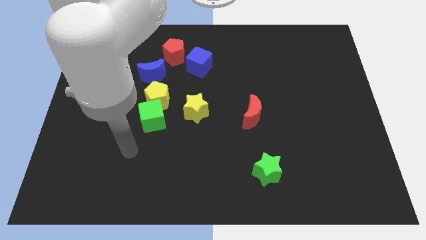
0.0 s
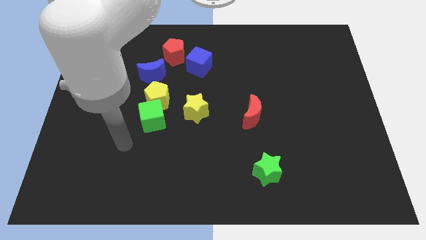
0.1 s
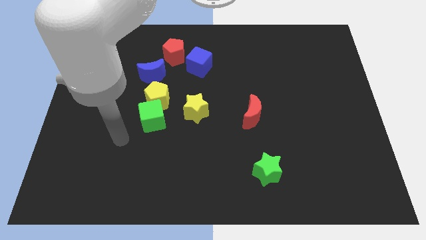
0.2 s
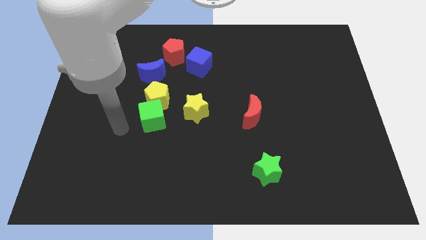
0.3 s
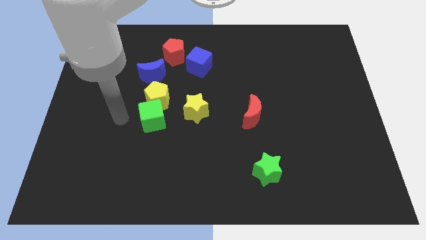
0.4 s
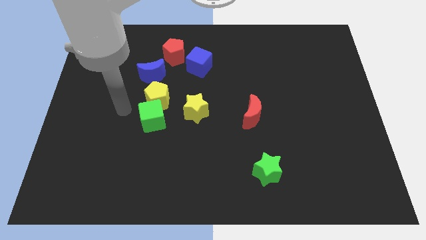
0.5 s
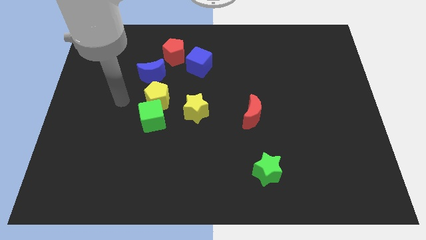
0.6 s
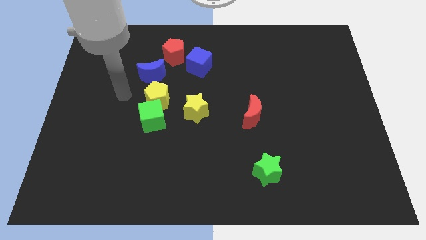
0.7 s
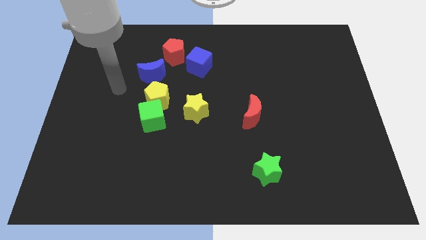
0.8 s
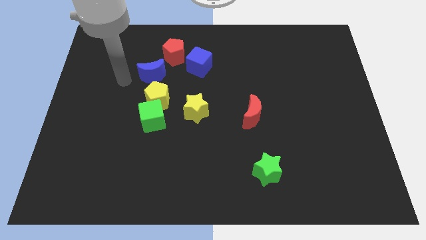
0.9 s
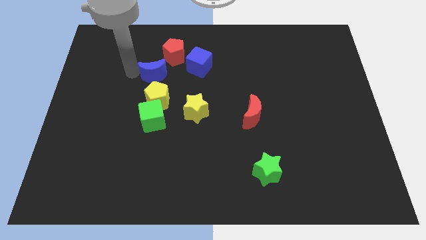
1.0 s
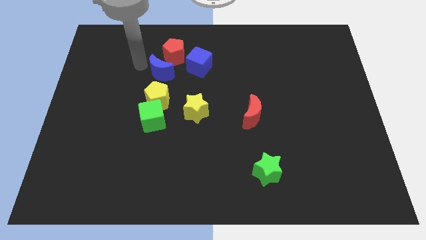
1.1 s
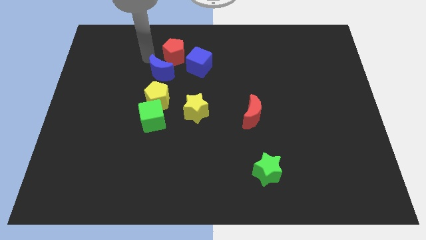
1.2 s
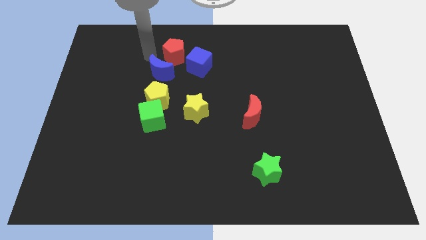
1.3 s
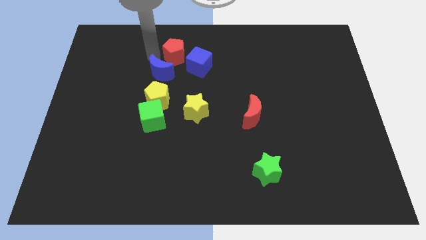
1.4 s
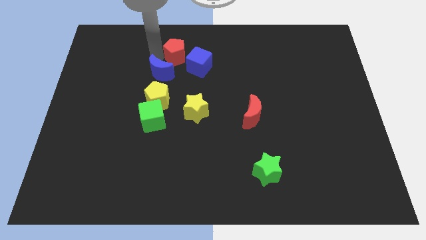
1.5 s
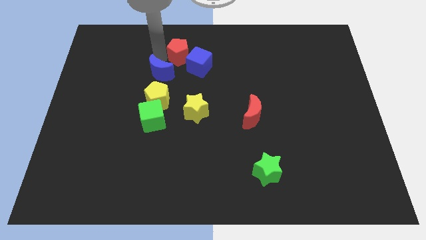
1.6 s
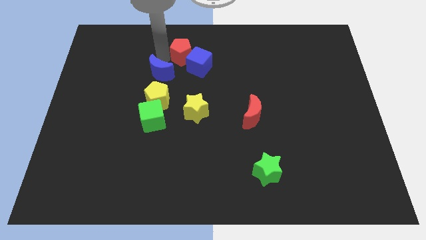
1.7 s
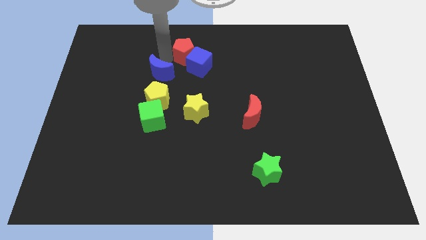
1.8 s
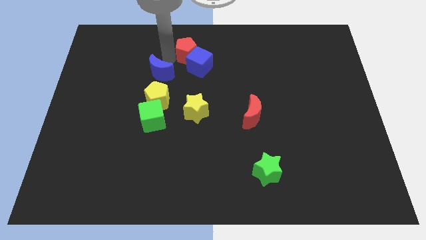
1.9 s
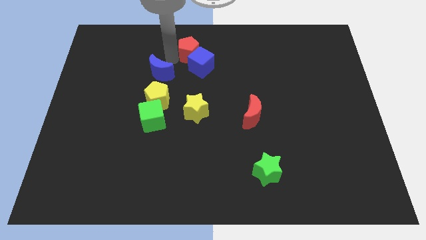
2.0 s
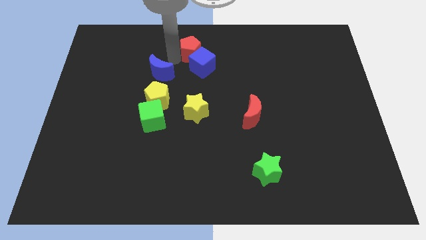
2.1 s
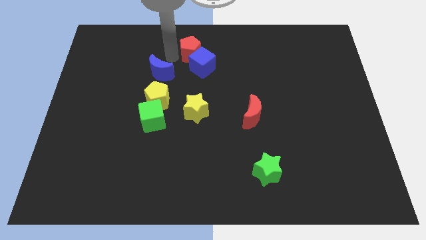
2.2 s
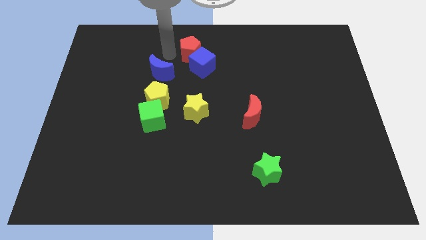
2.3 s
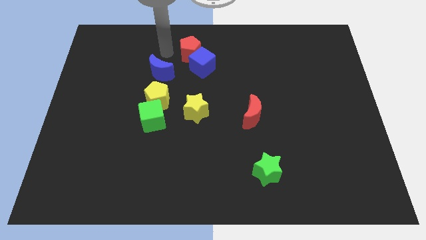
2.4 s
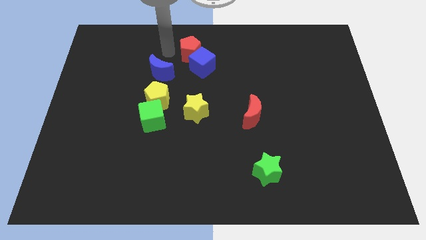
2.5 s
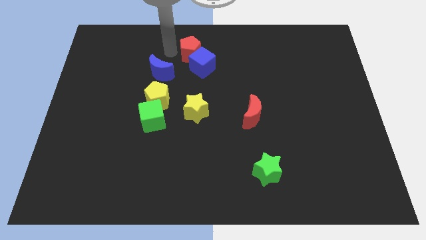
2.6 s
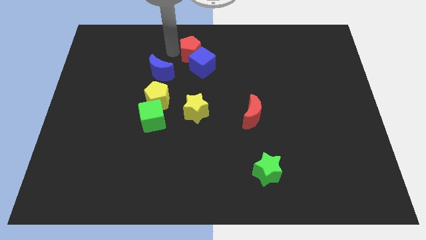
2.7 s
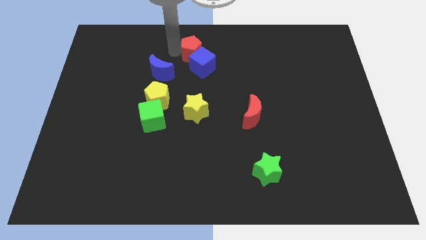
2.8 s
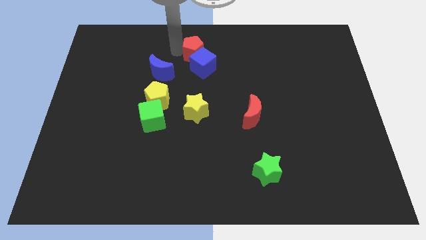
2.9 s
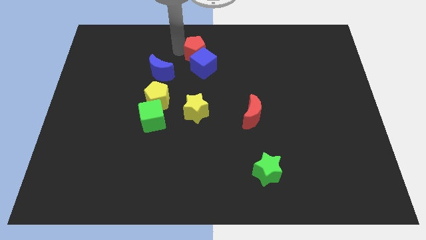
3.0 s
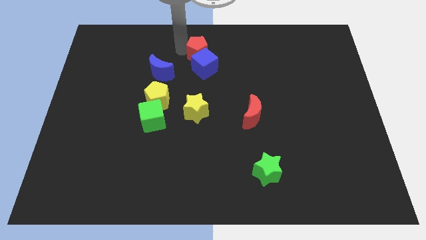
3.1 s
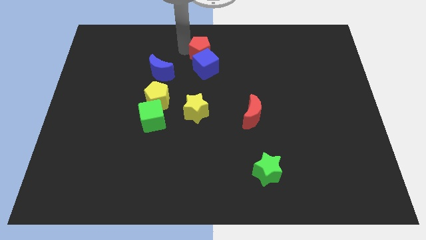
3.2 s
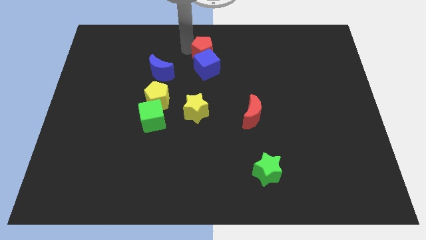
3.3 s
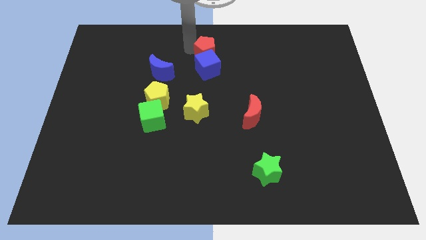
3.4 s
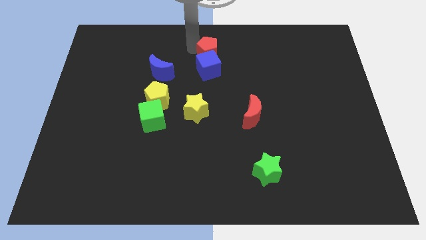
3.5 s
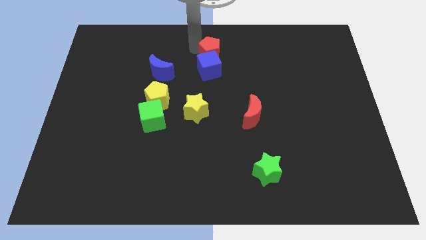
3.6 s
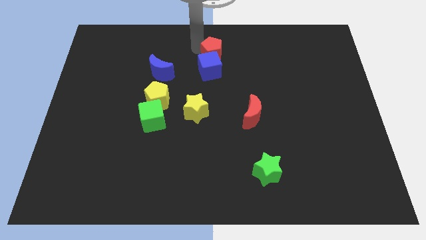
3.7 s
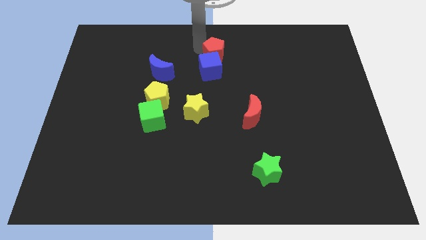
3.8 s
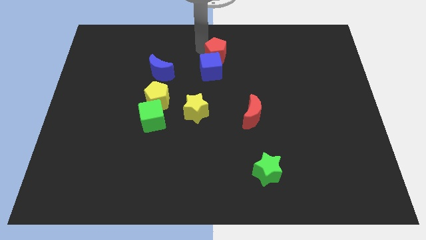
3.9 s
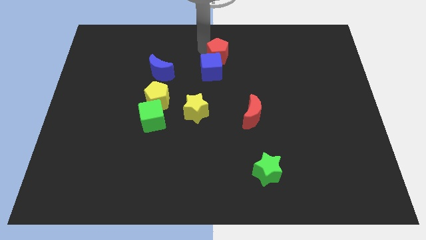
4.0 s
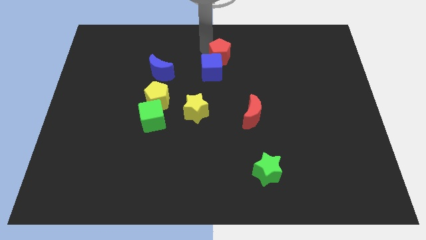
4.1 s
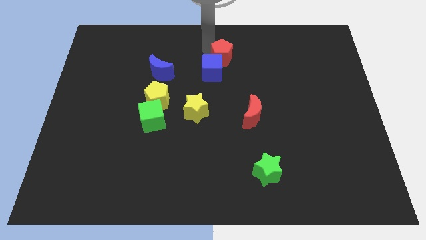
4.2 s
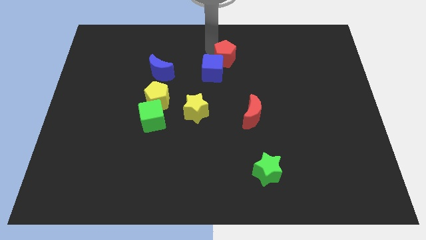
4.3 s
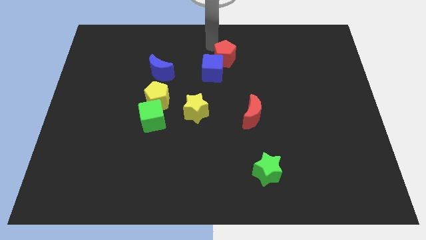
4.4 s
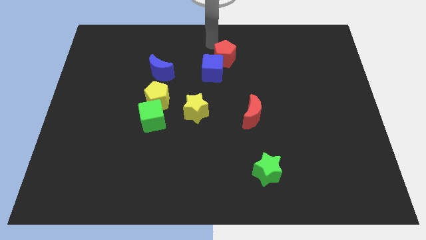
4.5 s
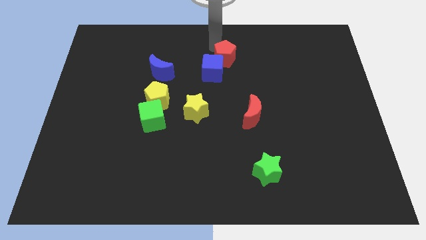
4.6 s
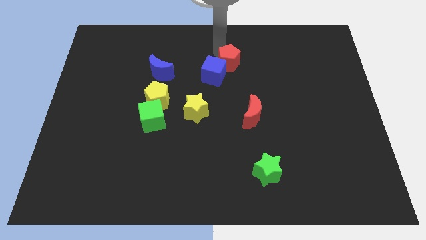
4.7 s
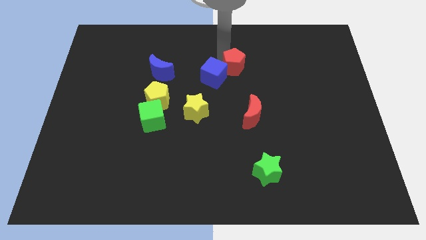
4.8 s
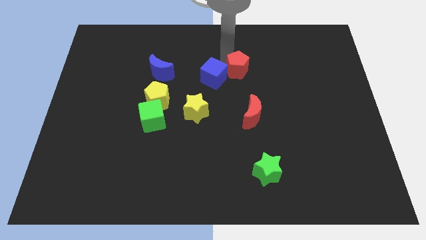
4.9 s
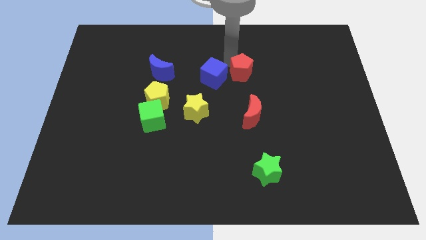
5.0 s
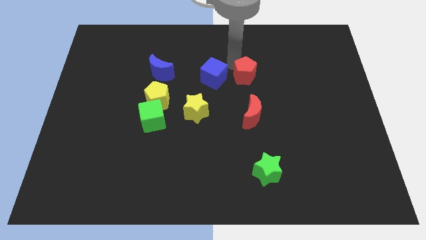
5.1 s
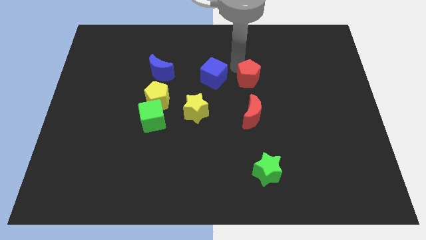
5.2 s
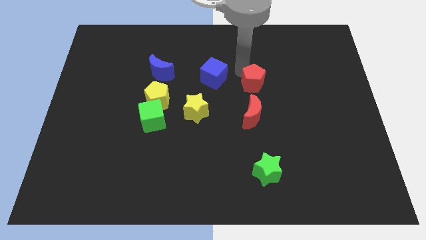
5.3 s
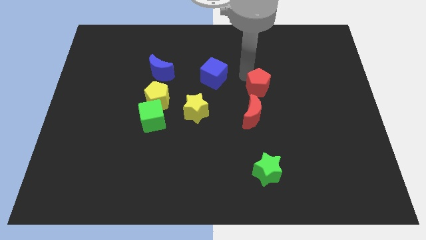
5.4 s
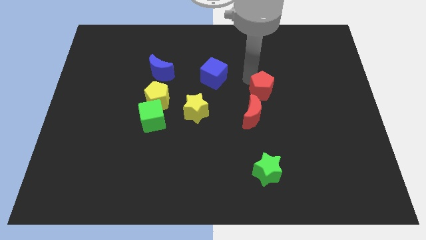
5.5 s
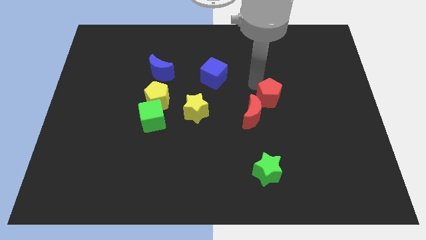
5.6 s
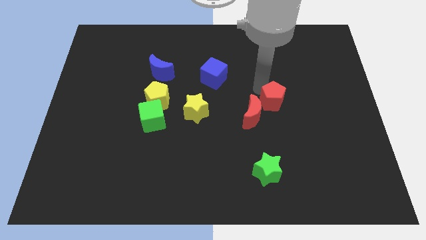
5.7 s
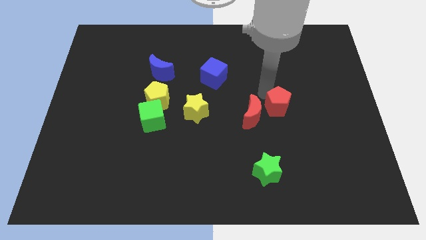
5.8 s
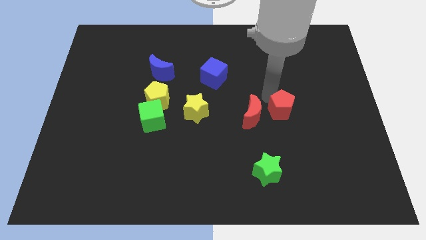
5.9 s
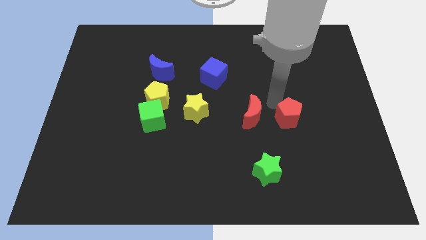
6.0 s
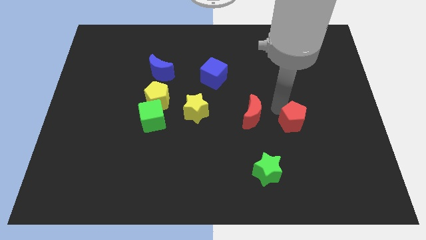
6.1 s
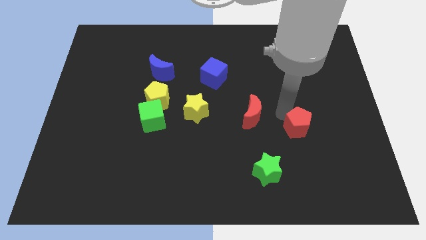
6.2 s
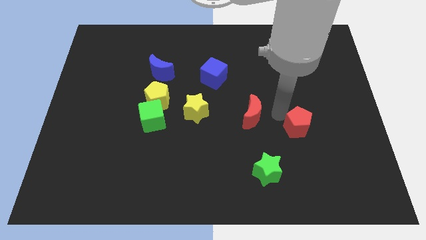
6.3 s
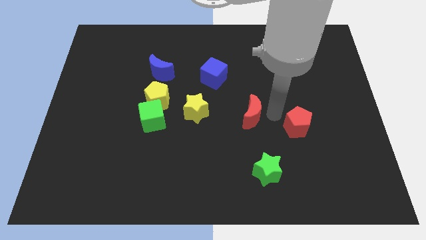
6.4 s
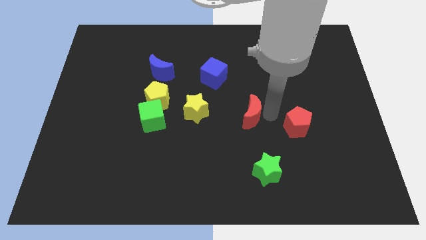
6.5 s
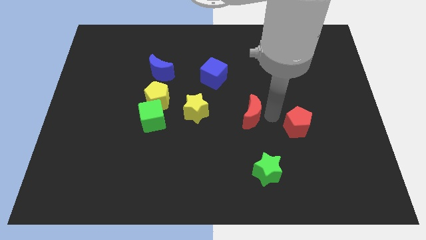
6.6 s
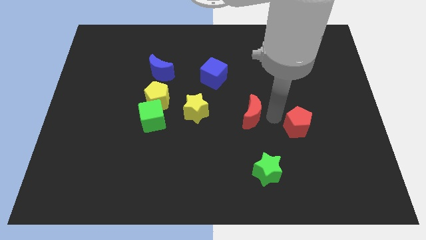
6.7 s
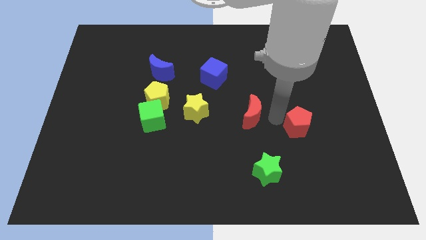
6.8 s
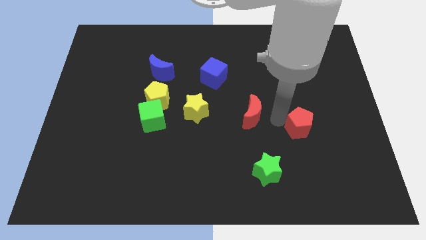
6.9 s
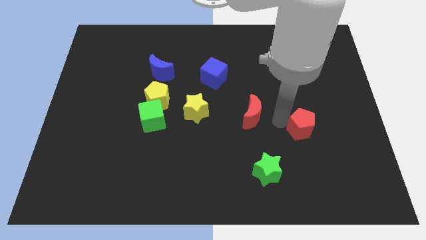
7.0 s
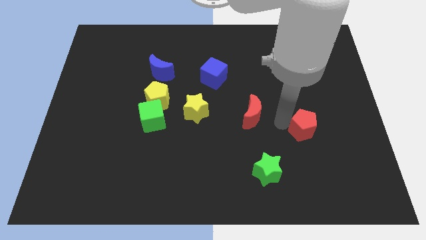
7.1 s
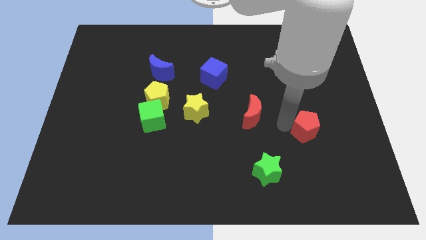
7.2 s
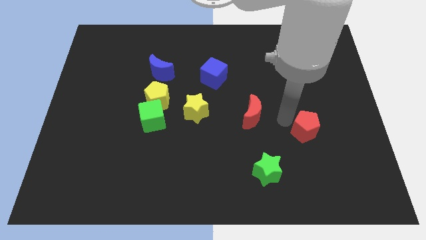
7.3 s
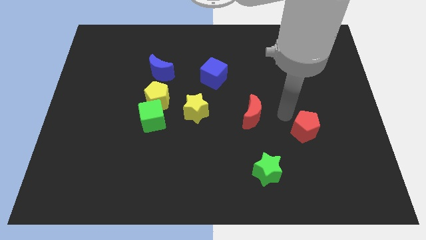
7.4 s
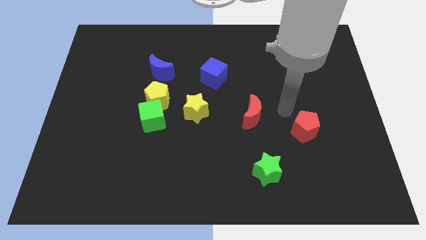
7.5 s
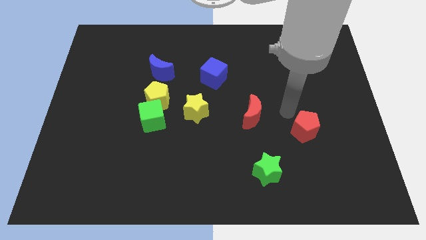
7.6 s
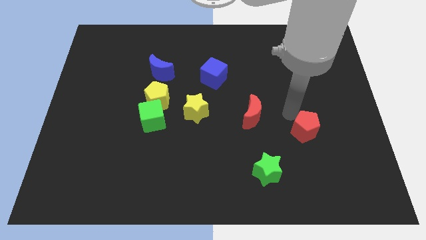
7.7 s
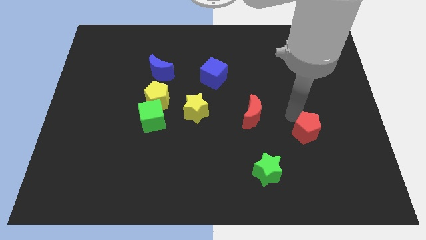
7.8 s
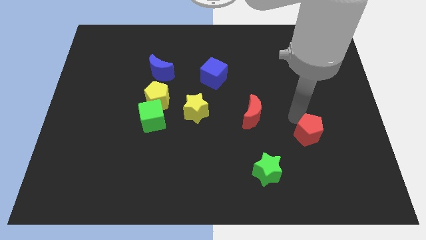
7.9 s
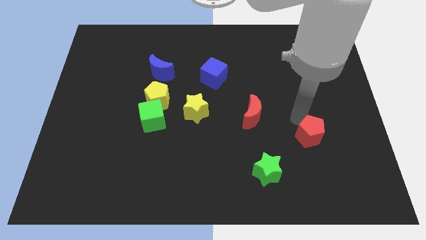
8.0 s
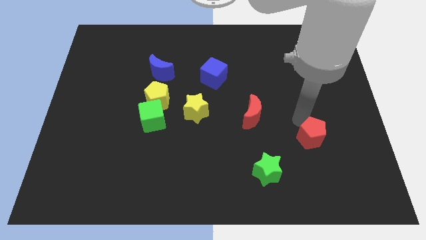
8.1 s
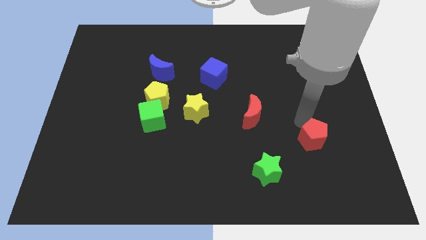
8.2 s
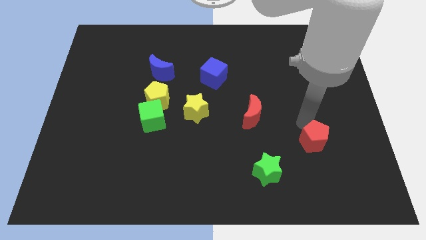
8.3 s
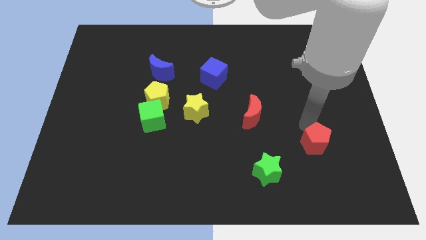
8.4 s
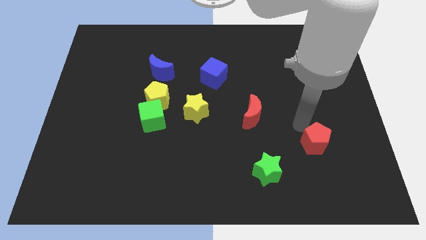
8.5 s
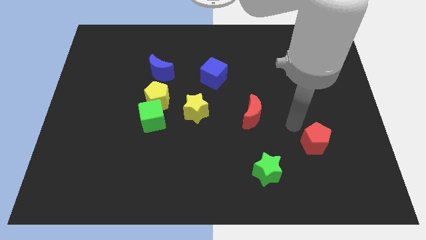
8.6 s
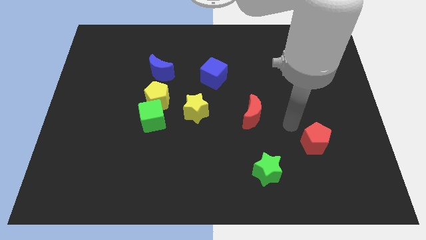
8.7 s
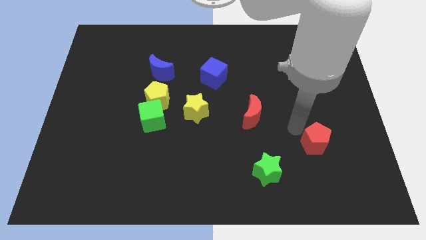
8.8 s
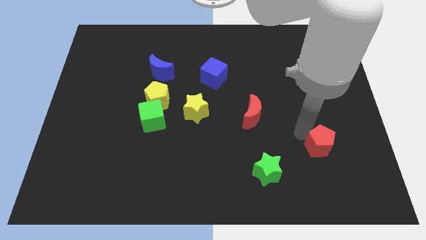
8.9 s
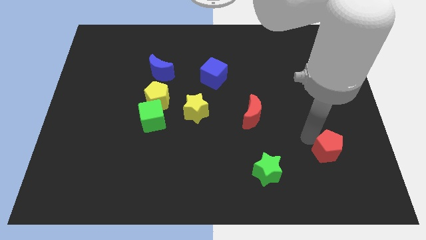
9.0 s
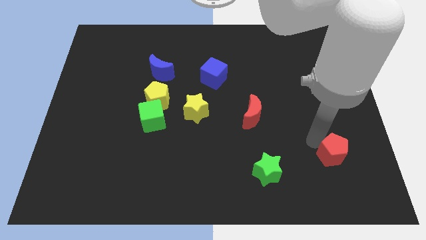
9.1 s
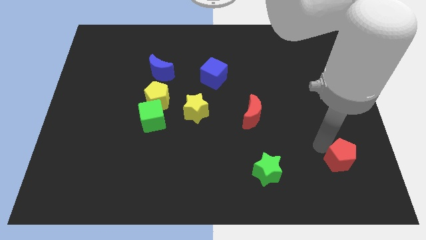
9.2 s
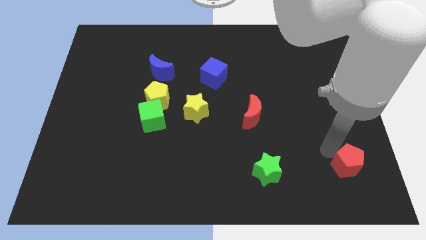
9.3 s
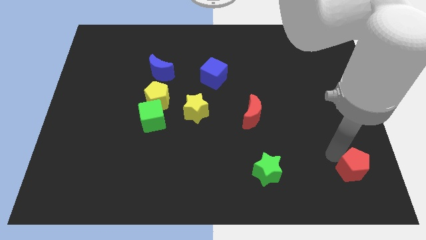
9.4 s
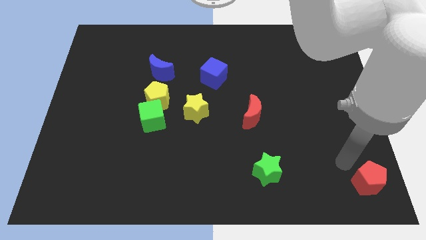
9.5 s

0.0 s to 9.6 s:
slide the red pentagon to the bottom right corner
